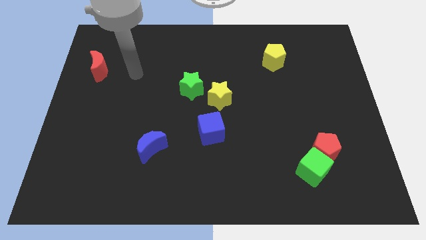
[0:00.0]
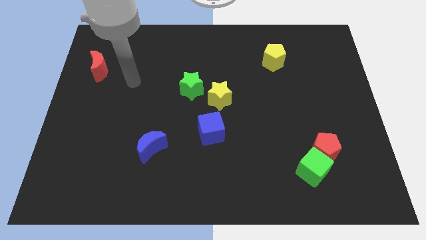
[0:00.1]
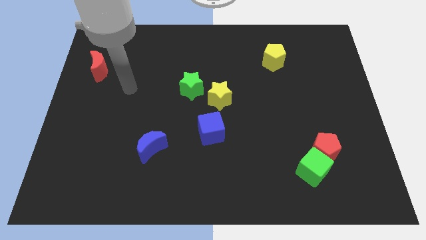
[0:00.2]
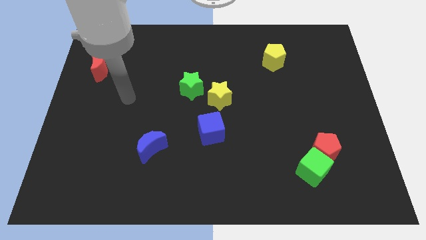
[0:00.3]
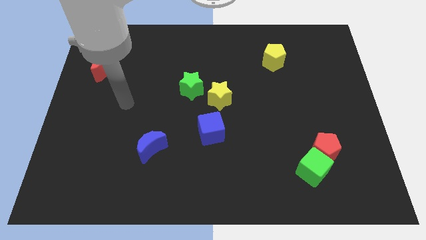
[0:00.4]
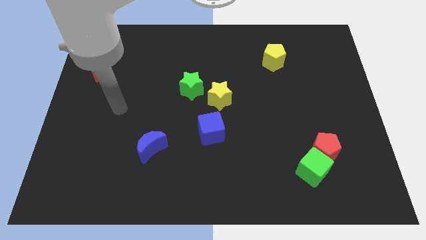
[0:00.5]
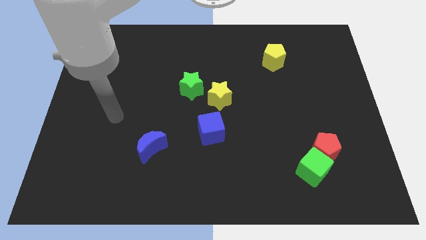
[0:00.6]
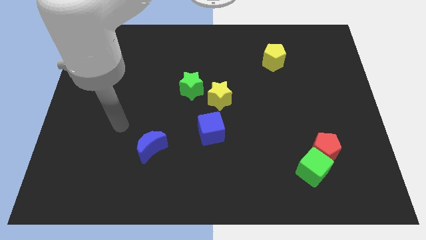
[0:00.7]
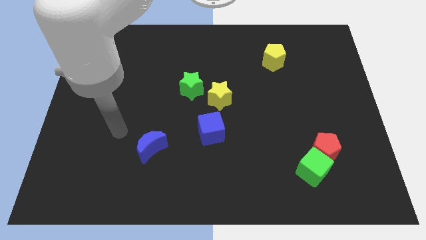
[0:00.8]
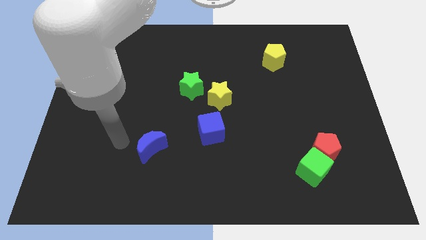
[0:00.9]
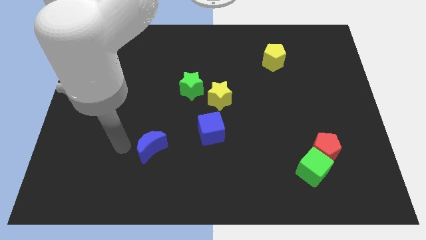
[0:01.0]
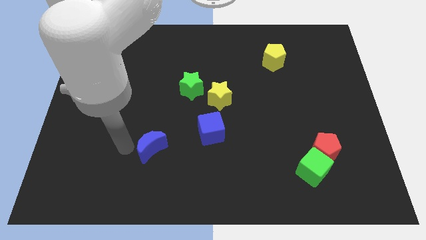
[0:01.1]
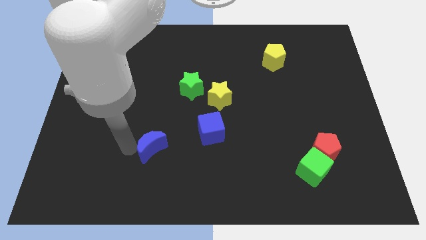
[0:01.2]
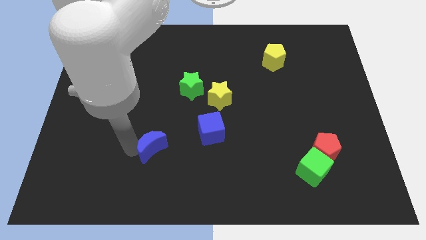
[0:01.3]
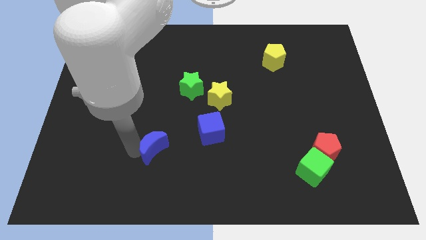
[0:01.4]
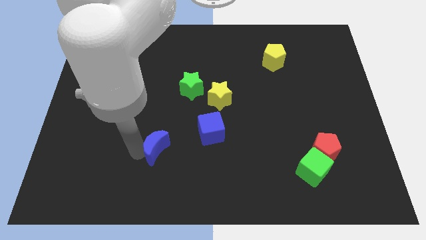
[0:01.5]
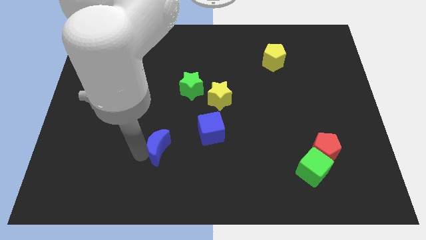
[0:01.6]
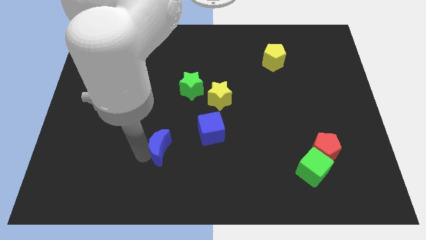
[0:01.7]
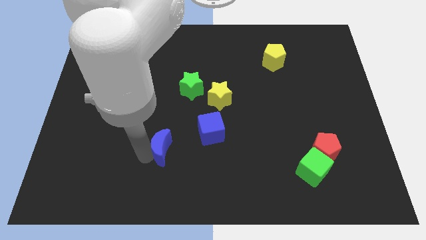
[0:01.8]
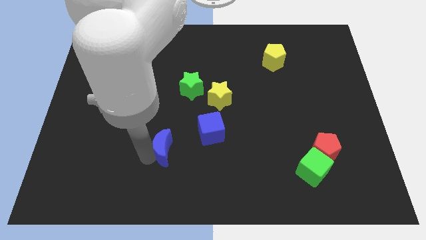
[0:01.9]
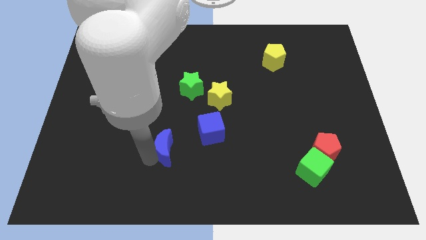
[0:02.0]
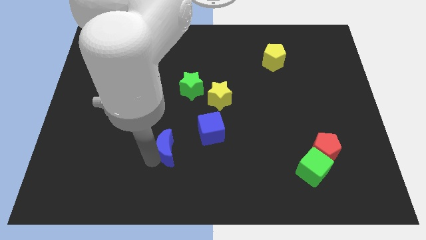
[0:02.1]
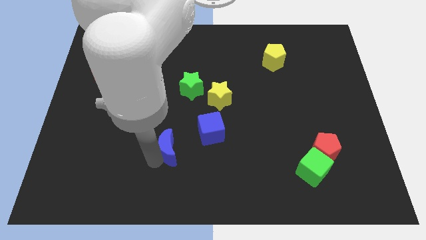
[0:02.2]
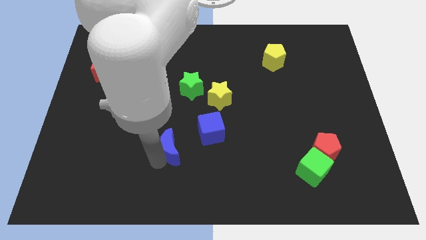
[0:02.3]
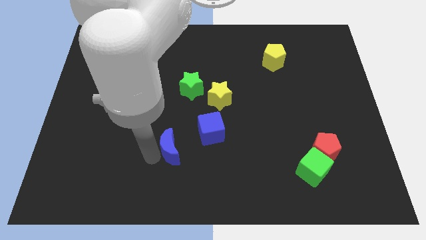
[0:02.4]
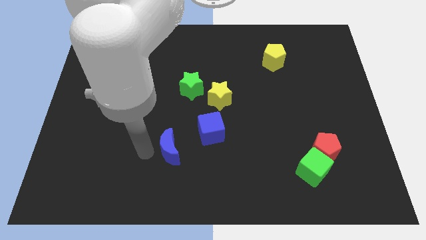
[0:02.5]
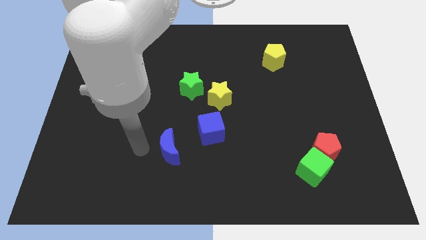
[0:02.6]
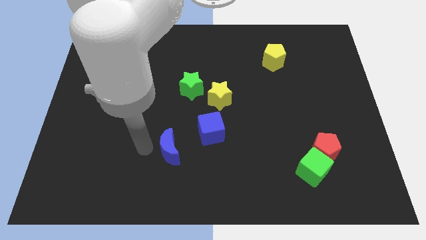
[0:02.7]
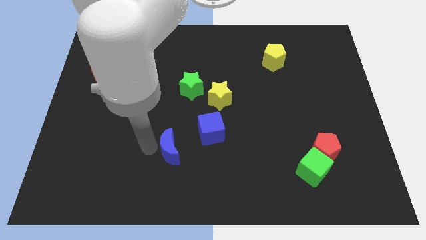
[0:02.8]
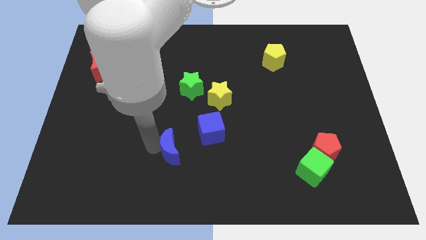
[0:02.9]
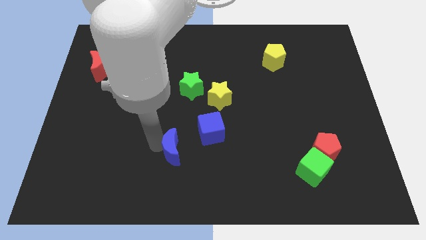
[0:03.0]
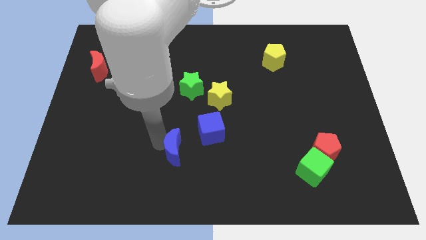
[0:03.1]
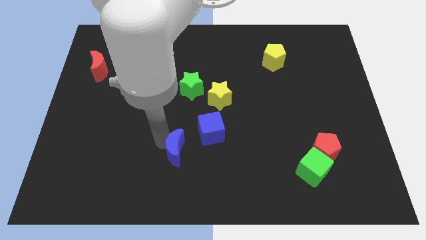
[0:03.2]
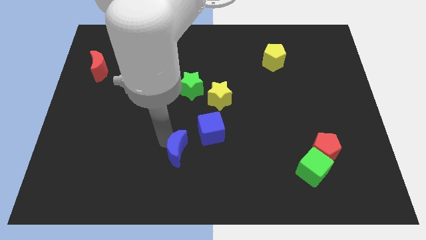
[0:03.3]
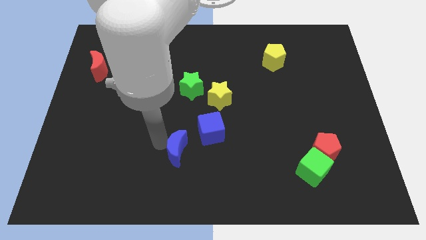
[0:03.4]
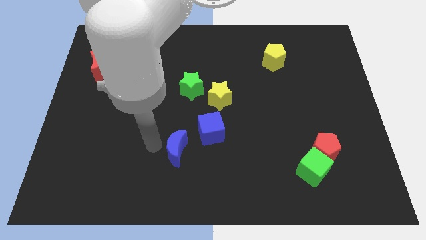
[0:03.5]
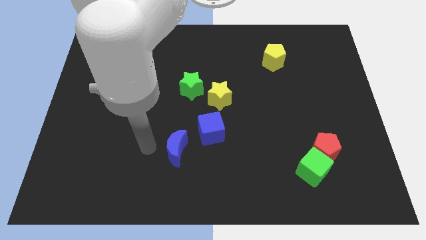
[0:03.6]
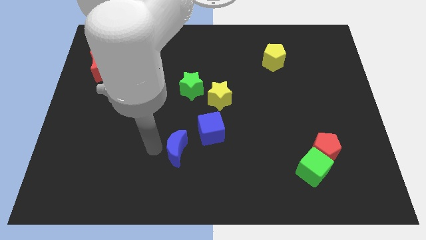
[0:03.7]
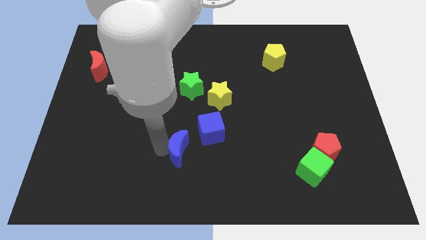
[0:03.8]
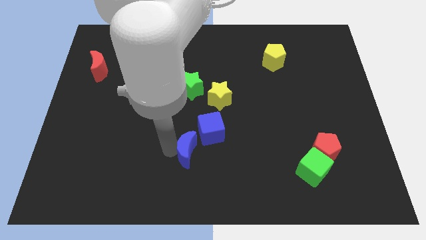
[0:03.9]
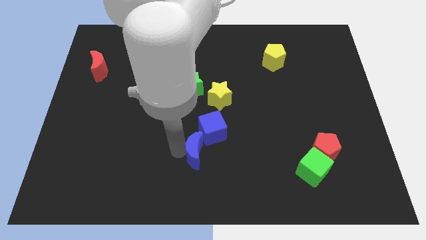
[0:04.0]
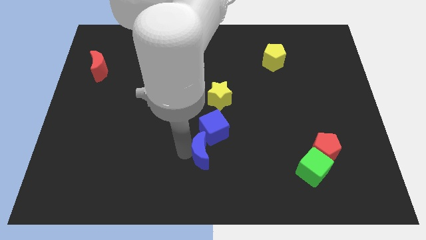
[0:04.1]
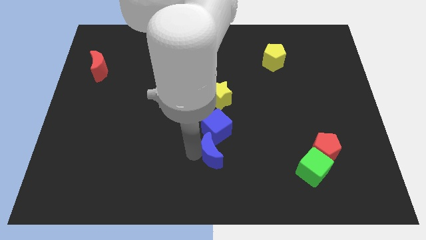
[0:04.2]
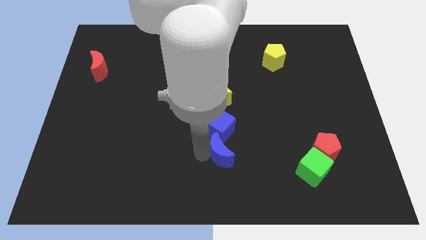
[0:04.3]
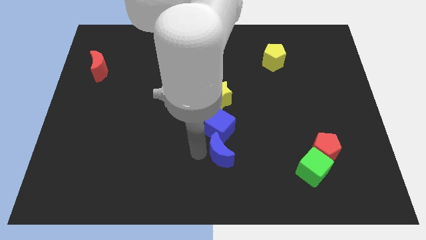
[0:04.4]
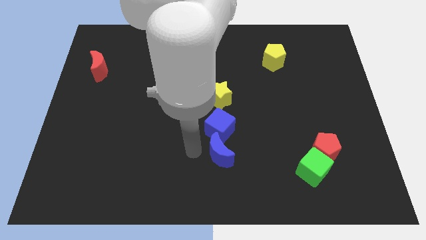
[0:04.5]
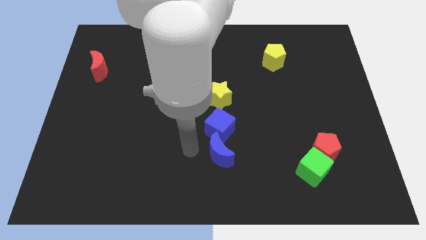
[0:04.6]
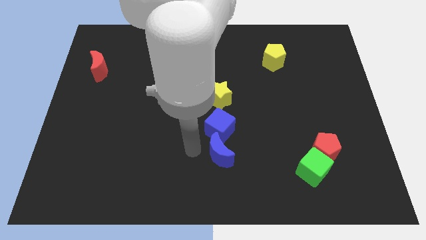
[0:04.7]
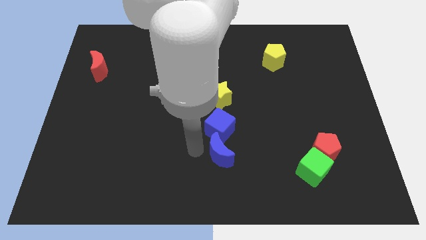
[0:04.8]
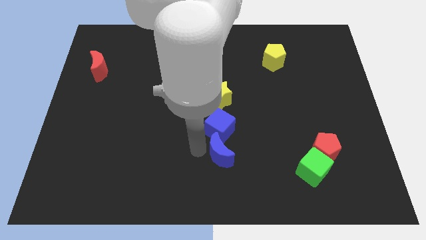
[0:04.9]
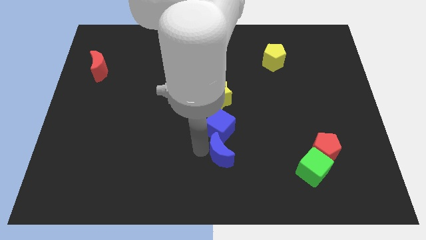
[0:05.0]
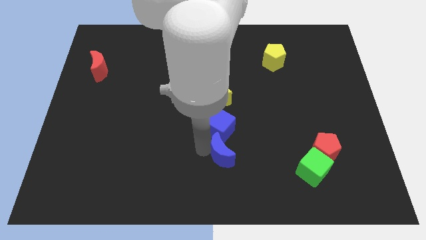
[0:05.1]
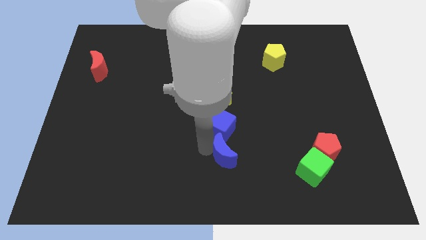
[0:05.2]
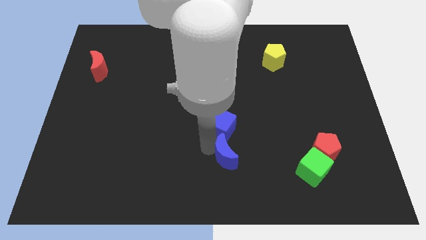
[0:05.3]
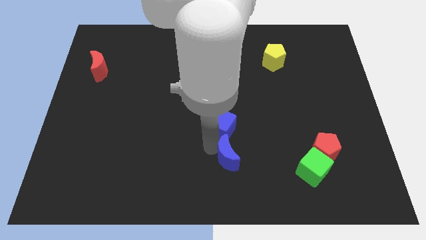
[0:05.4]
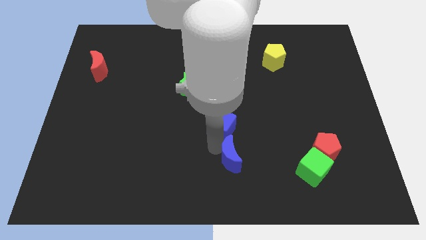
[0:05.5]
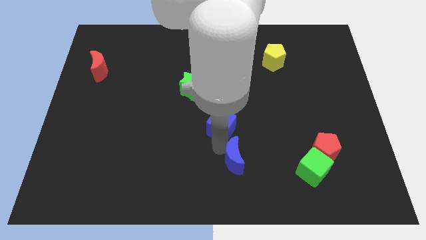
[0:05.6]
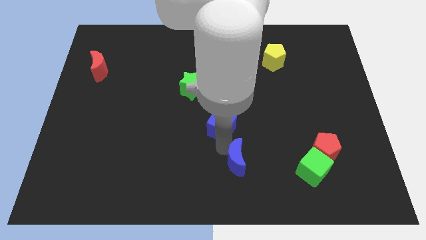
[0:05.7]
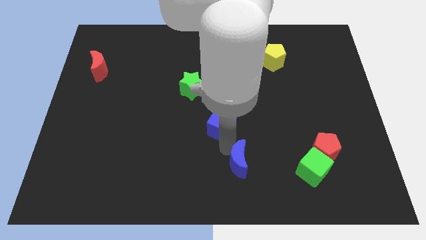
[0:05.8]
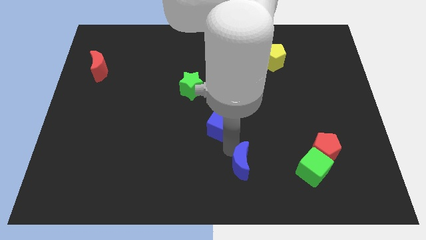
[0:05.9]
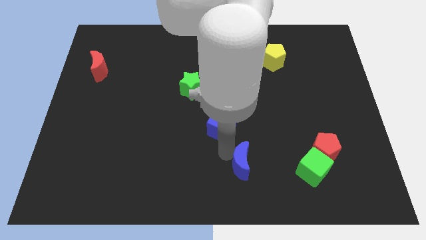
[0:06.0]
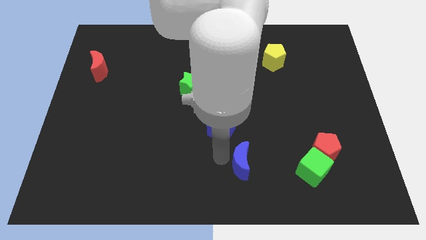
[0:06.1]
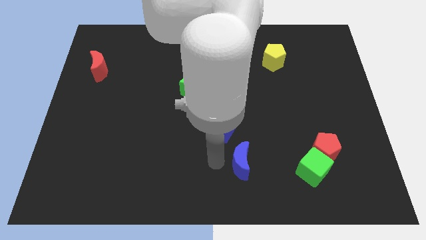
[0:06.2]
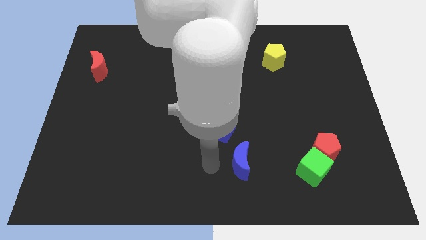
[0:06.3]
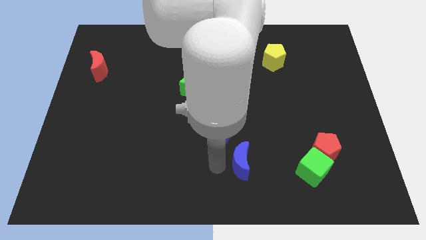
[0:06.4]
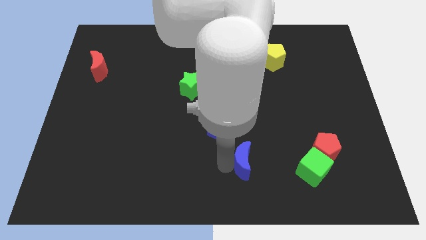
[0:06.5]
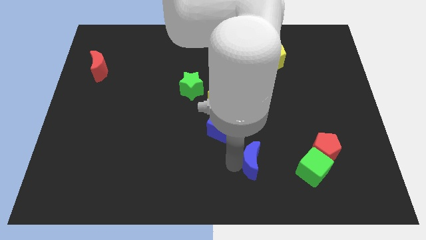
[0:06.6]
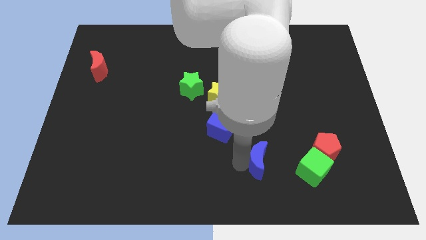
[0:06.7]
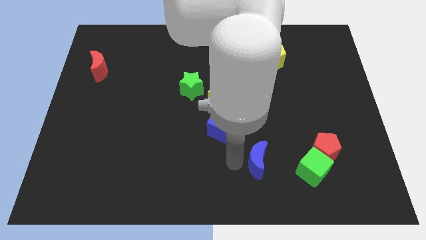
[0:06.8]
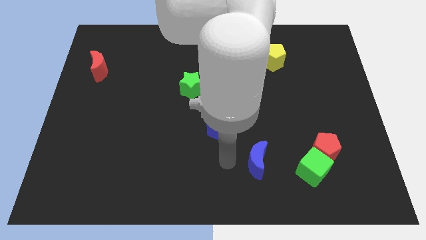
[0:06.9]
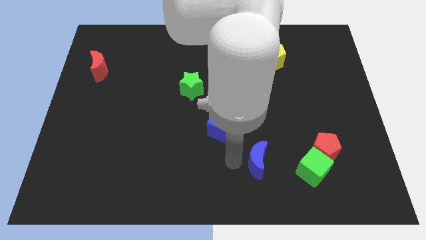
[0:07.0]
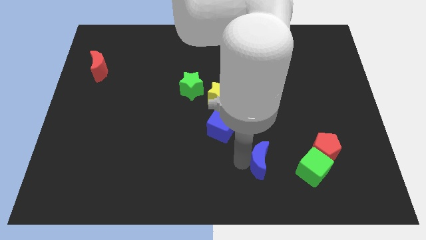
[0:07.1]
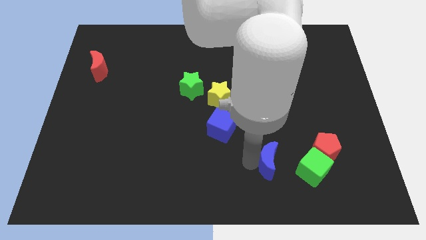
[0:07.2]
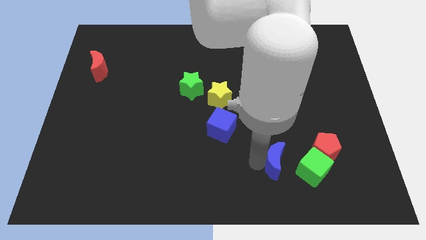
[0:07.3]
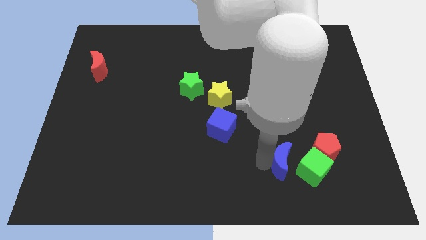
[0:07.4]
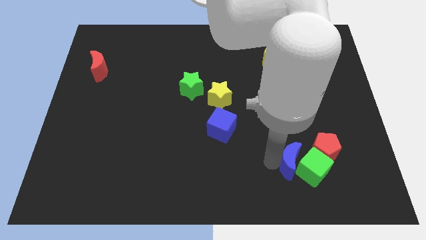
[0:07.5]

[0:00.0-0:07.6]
slide the blue moon to the green cube
